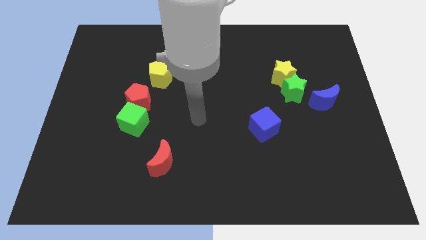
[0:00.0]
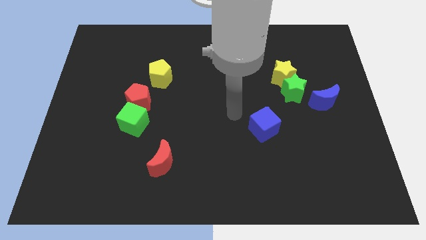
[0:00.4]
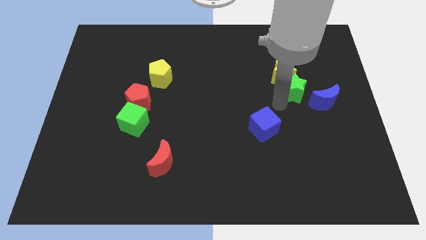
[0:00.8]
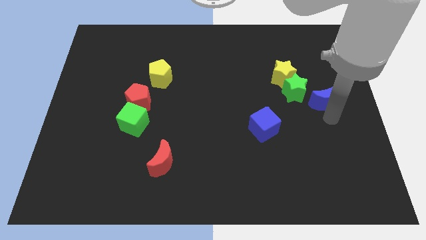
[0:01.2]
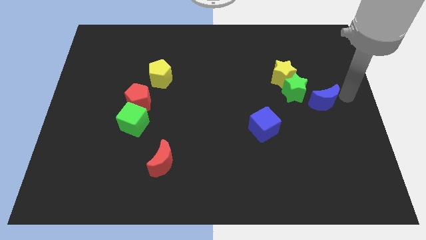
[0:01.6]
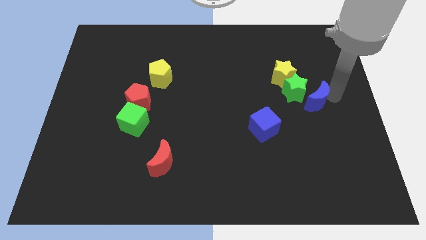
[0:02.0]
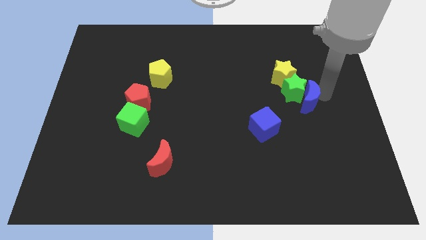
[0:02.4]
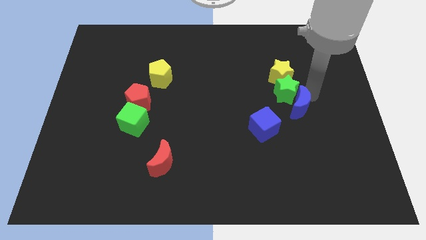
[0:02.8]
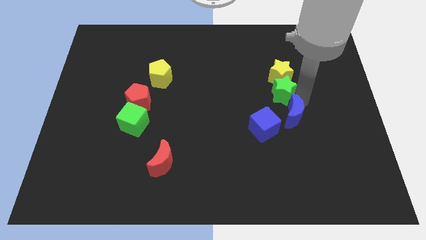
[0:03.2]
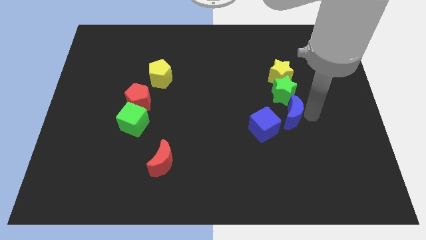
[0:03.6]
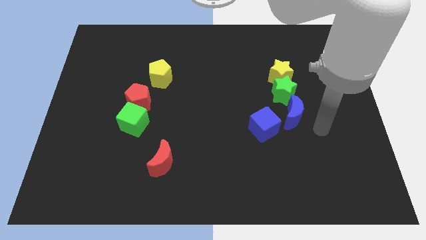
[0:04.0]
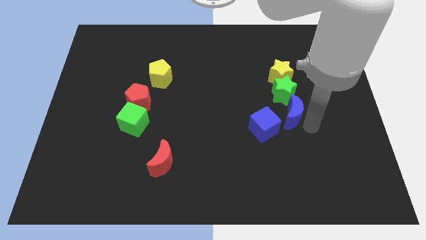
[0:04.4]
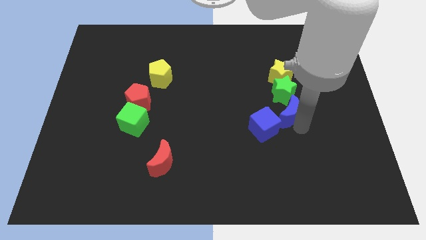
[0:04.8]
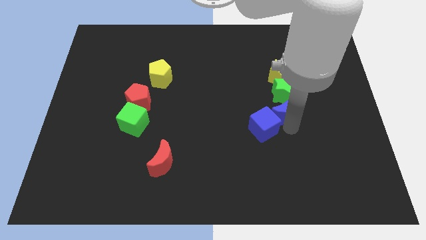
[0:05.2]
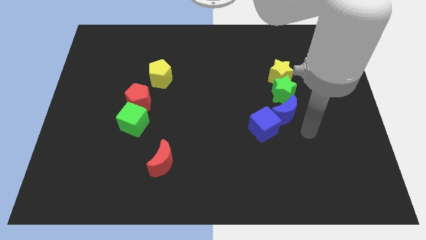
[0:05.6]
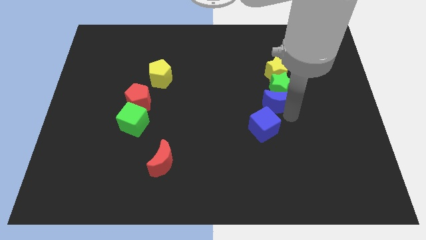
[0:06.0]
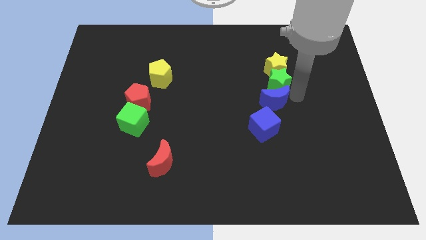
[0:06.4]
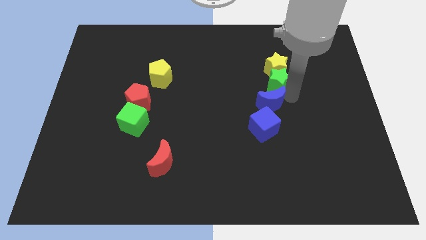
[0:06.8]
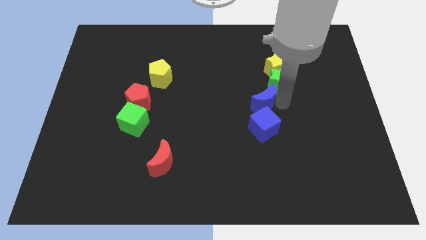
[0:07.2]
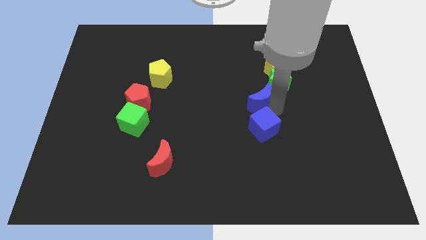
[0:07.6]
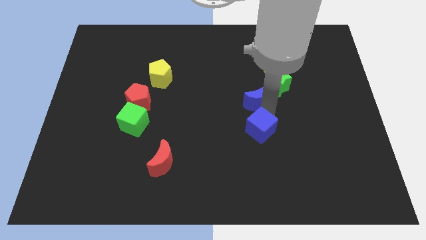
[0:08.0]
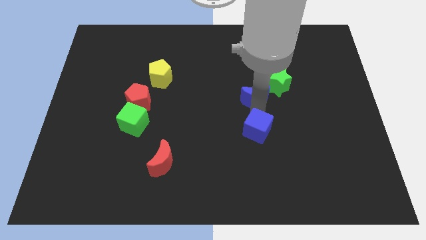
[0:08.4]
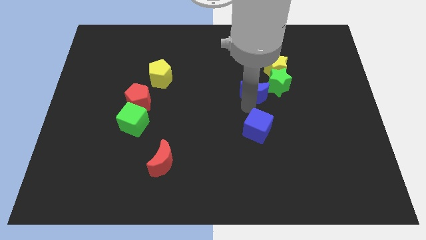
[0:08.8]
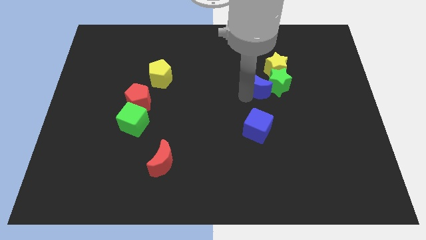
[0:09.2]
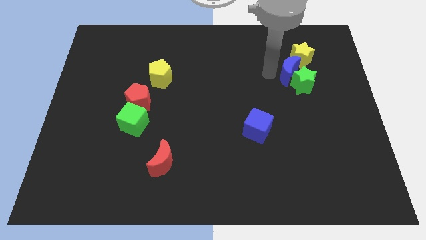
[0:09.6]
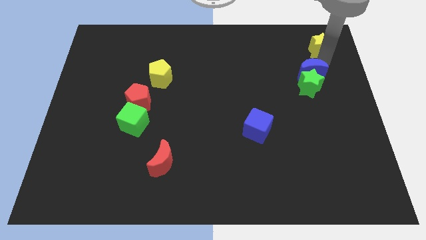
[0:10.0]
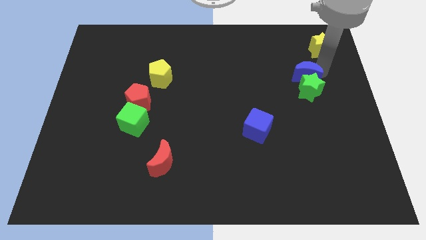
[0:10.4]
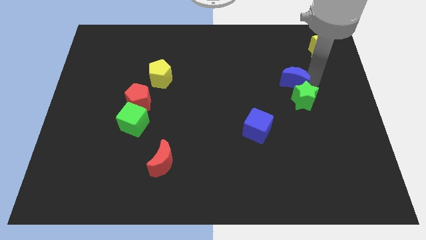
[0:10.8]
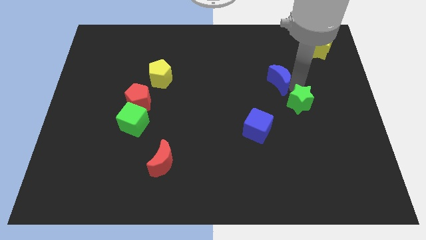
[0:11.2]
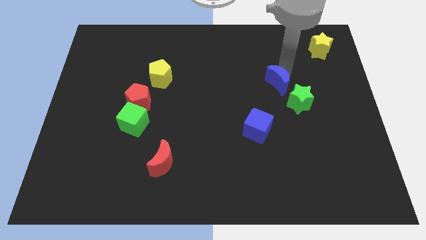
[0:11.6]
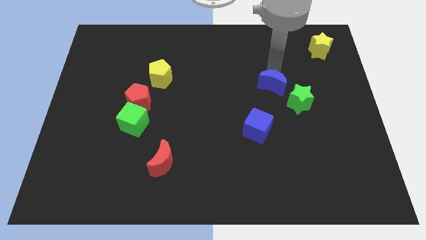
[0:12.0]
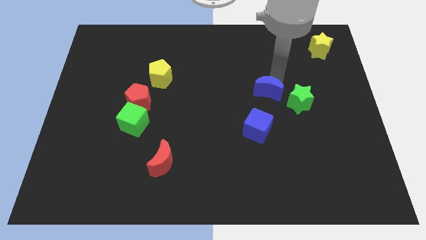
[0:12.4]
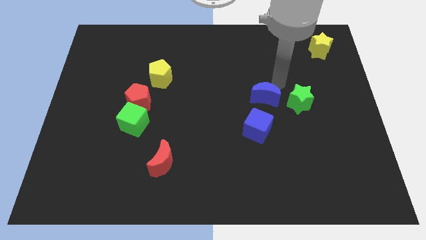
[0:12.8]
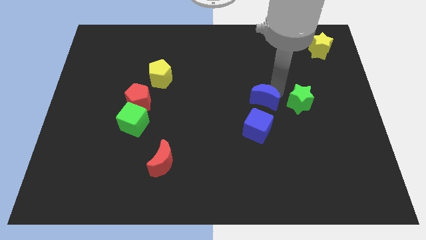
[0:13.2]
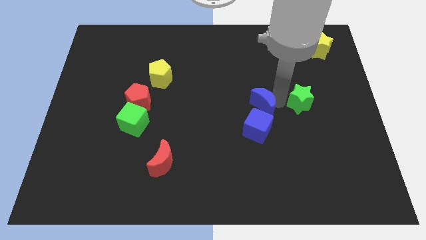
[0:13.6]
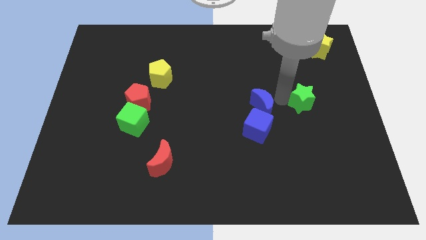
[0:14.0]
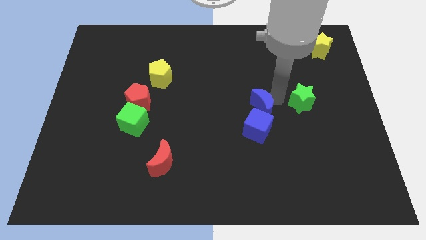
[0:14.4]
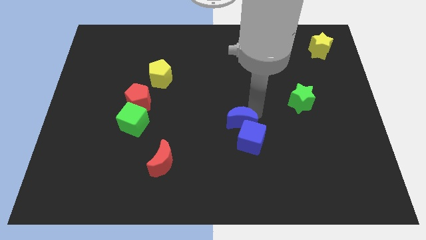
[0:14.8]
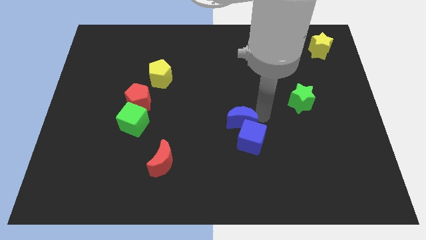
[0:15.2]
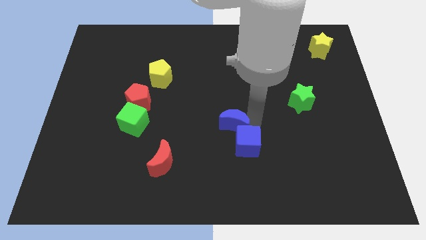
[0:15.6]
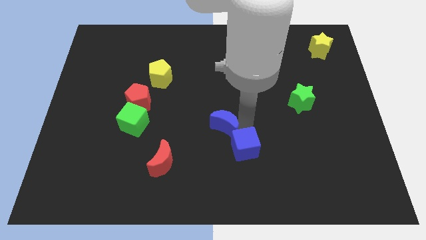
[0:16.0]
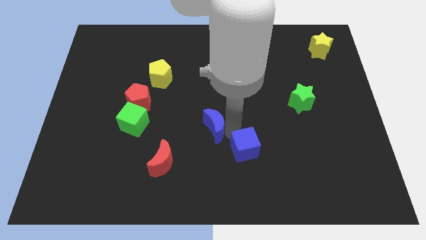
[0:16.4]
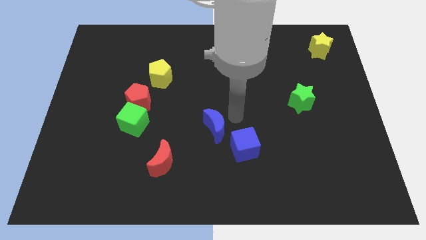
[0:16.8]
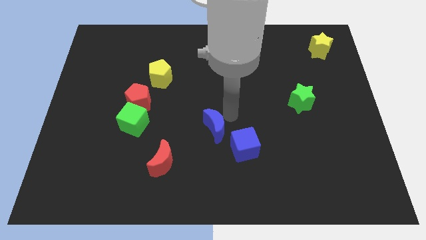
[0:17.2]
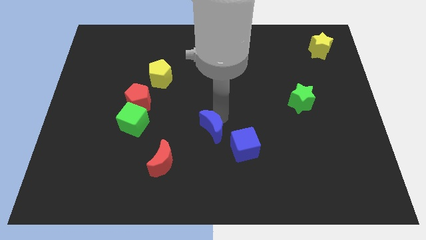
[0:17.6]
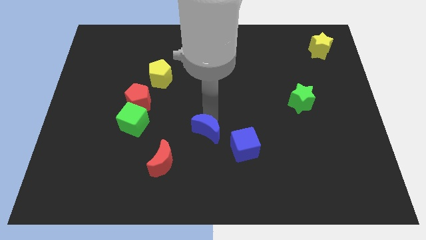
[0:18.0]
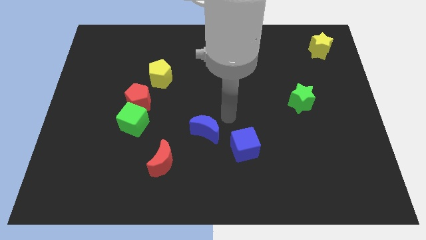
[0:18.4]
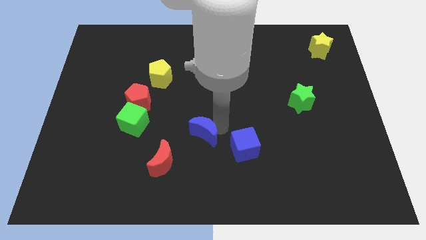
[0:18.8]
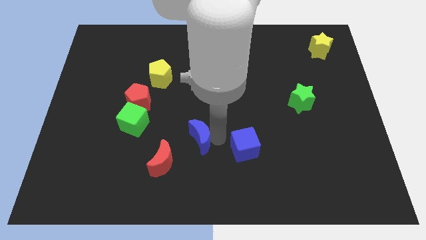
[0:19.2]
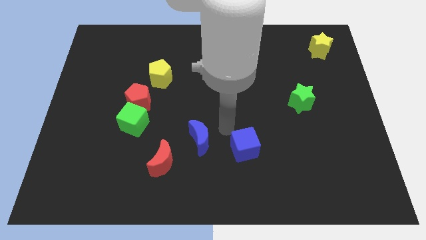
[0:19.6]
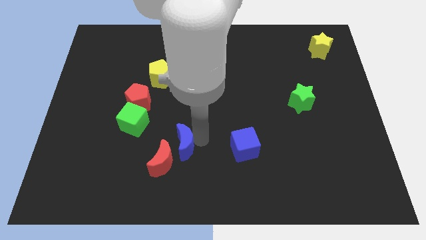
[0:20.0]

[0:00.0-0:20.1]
put the blue moon to the red moon

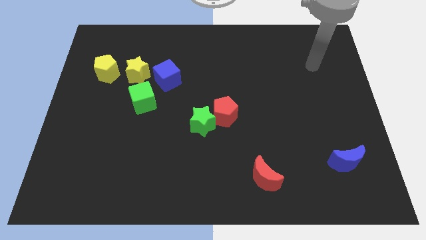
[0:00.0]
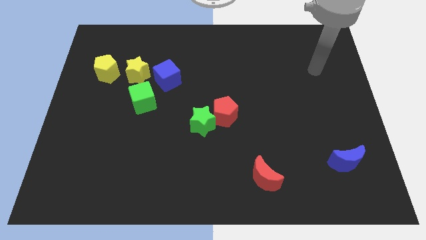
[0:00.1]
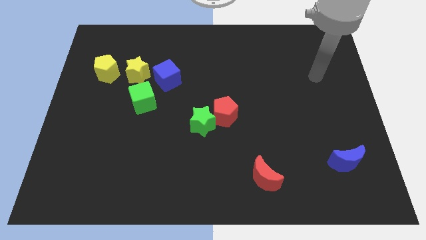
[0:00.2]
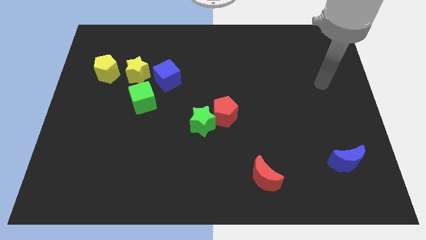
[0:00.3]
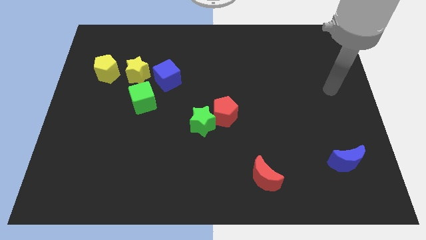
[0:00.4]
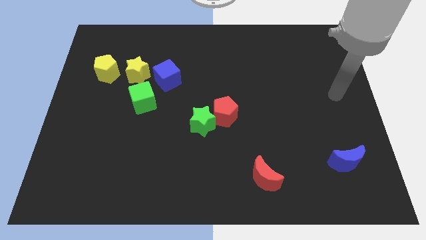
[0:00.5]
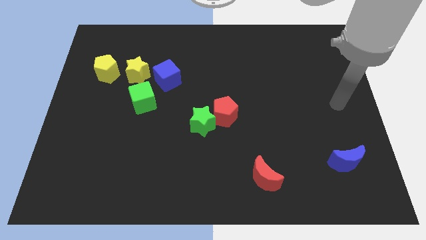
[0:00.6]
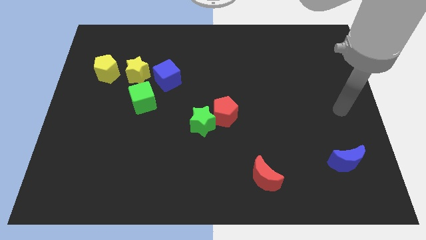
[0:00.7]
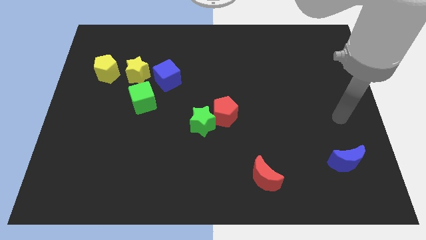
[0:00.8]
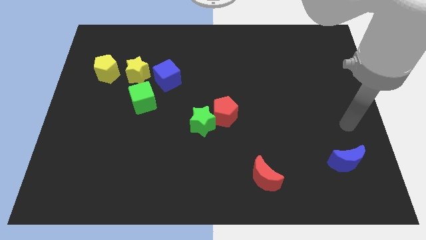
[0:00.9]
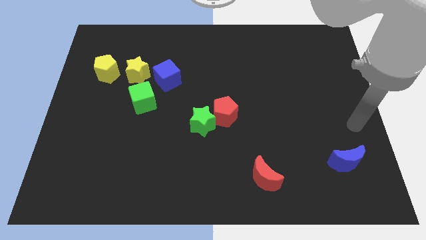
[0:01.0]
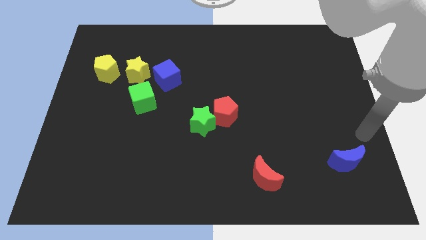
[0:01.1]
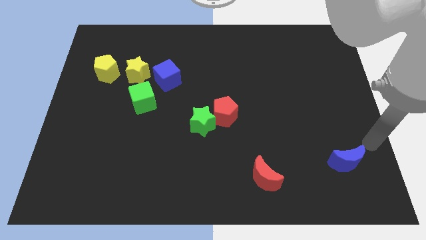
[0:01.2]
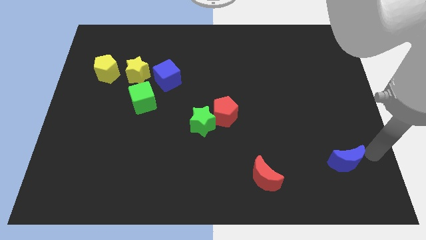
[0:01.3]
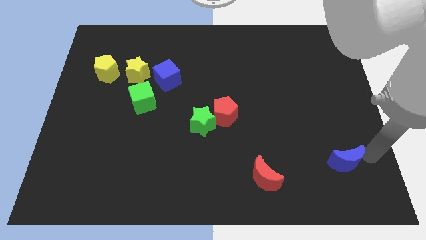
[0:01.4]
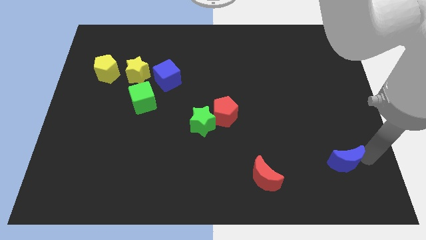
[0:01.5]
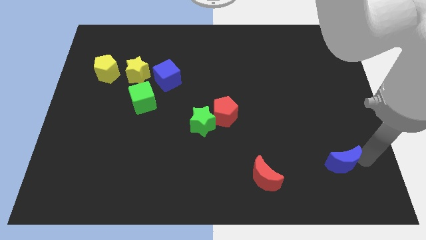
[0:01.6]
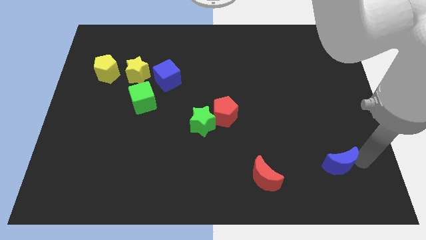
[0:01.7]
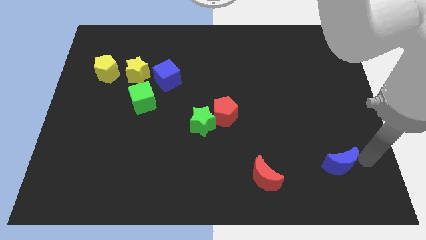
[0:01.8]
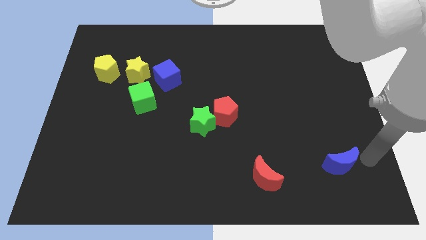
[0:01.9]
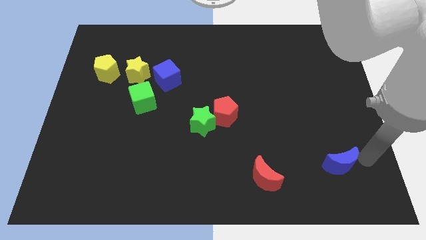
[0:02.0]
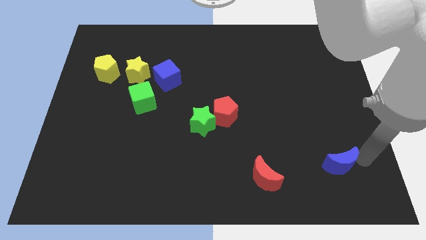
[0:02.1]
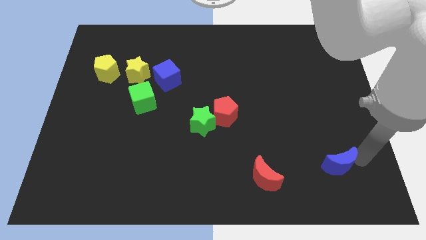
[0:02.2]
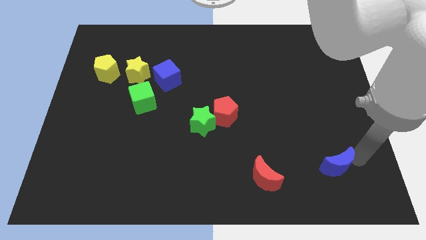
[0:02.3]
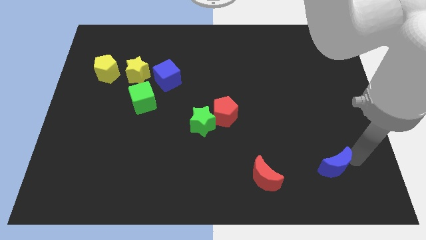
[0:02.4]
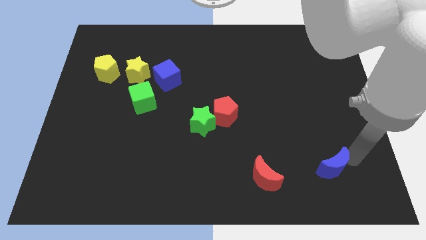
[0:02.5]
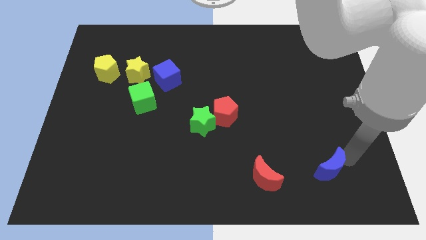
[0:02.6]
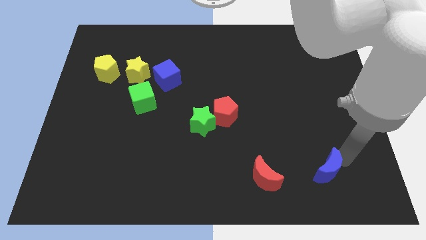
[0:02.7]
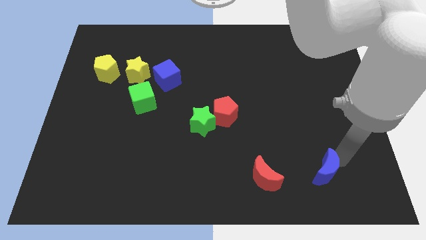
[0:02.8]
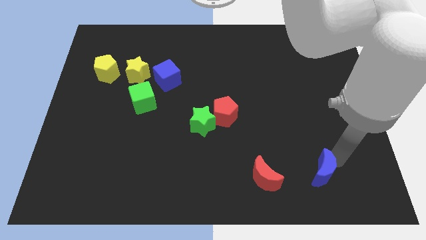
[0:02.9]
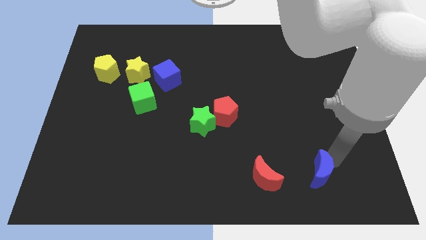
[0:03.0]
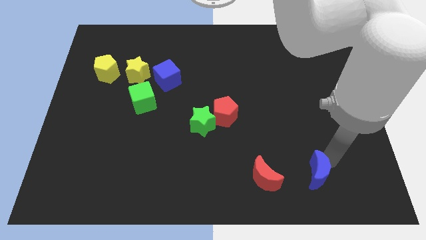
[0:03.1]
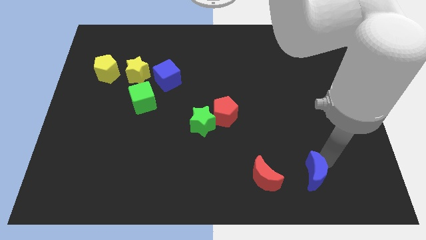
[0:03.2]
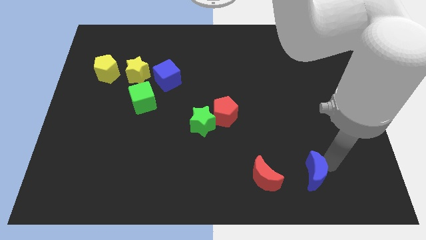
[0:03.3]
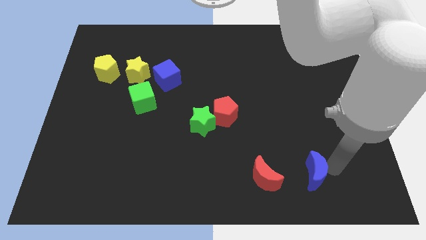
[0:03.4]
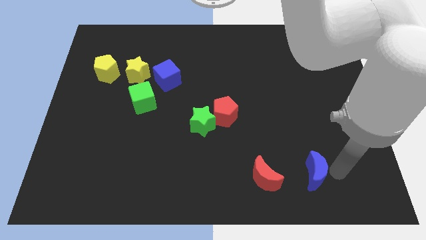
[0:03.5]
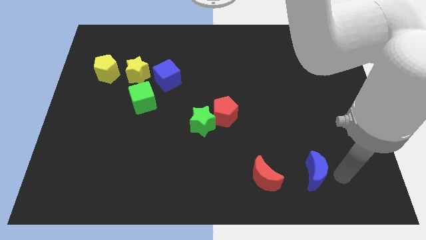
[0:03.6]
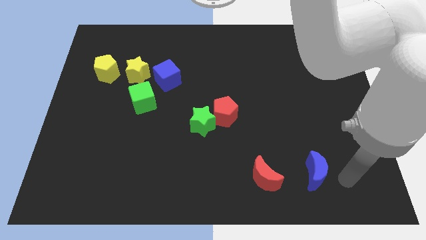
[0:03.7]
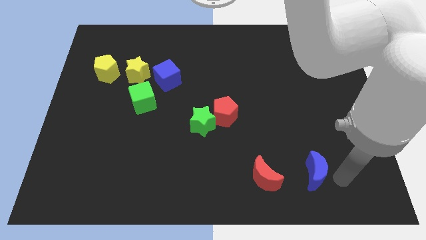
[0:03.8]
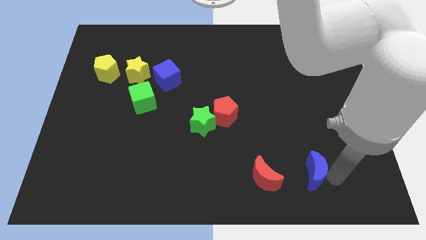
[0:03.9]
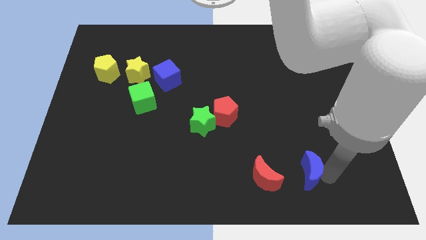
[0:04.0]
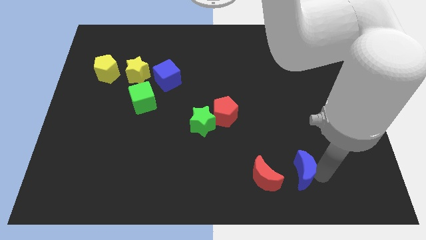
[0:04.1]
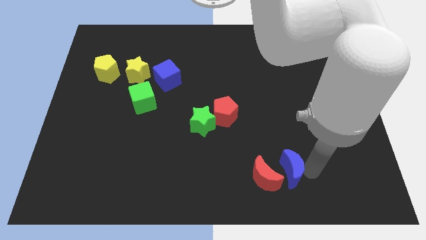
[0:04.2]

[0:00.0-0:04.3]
push the blue moon close to the red moon
